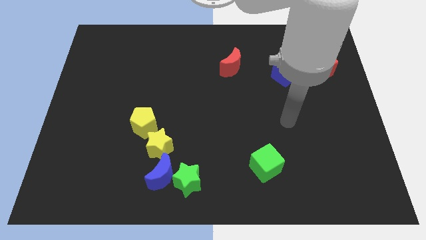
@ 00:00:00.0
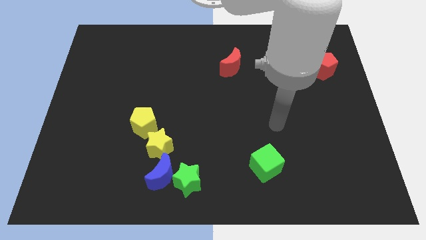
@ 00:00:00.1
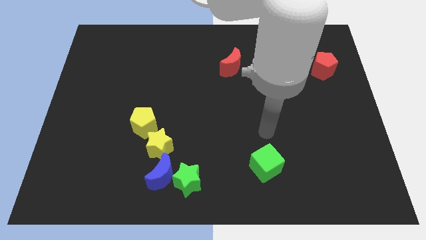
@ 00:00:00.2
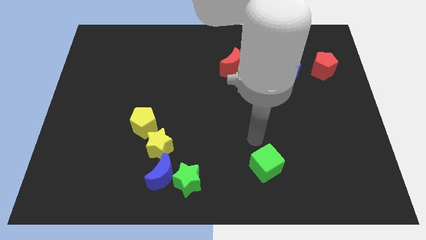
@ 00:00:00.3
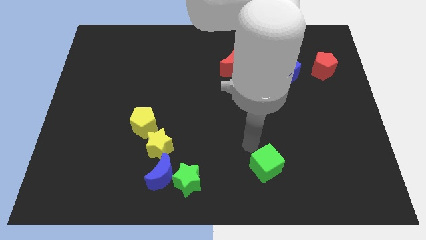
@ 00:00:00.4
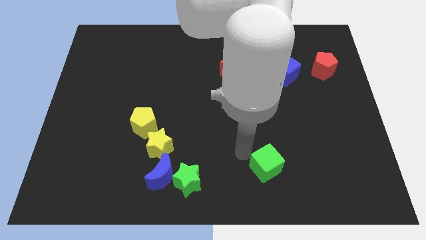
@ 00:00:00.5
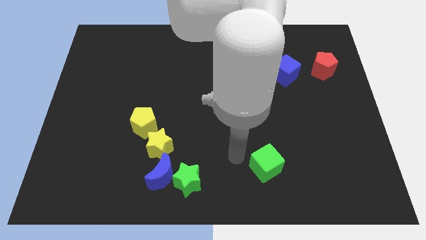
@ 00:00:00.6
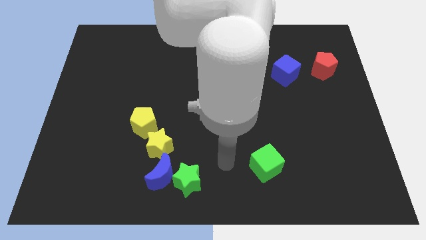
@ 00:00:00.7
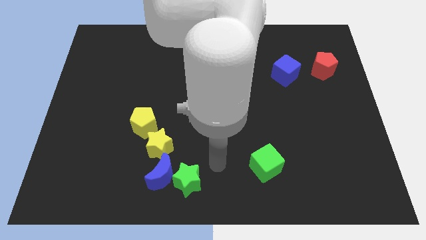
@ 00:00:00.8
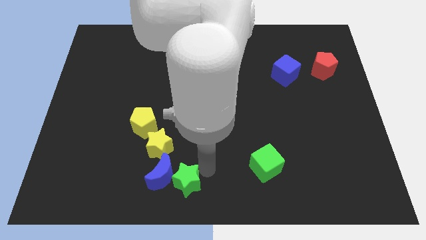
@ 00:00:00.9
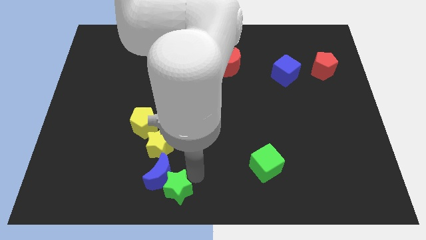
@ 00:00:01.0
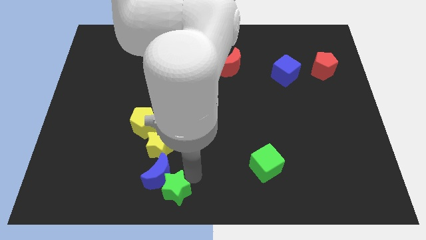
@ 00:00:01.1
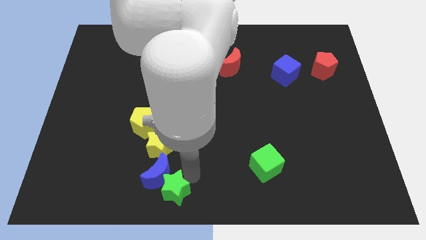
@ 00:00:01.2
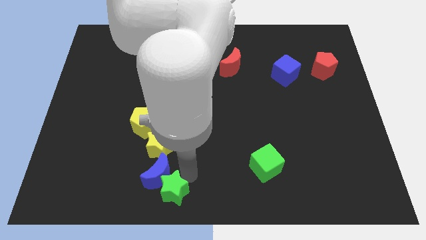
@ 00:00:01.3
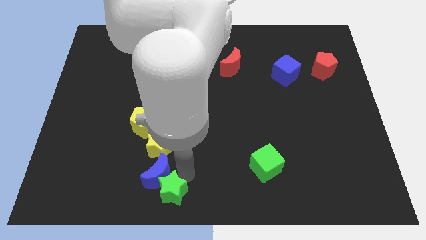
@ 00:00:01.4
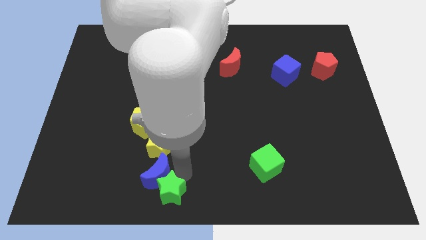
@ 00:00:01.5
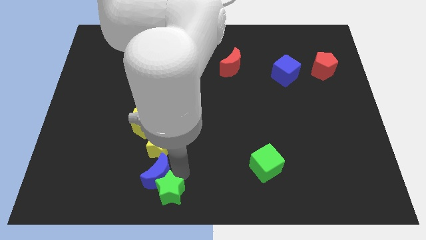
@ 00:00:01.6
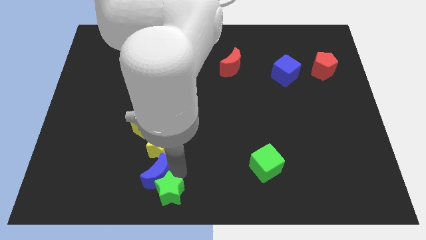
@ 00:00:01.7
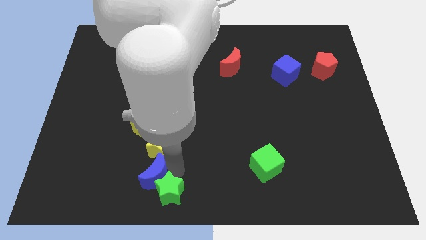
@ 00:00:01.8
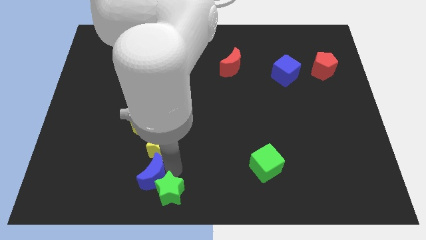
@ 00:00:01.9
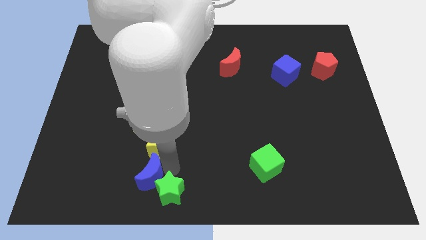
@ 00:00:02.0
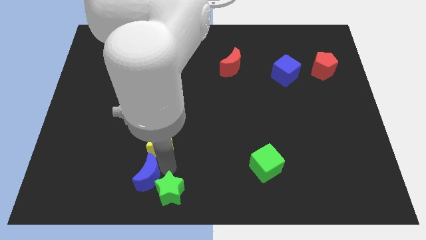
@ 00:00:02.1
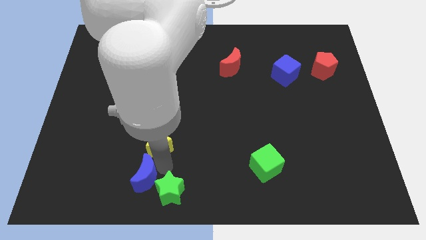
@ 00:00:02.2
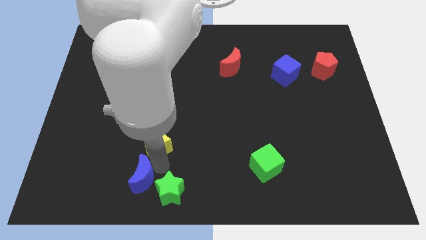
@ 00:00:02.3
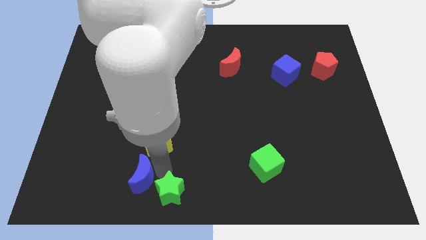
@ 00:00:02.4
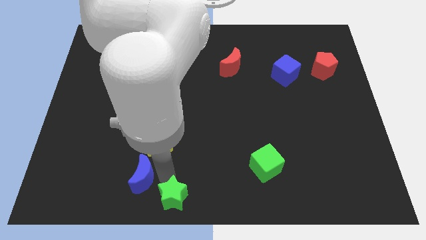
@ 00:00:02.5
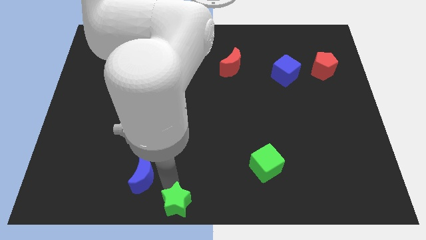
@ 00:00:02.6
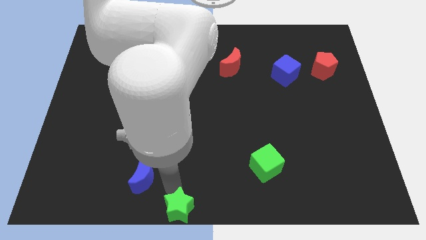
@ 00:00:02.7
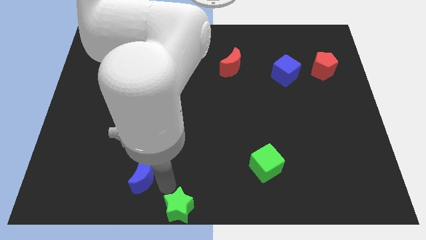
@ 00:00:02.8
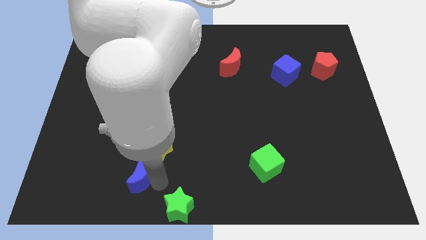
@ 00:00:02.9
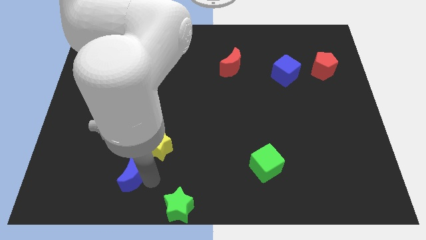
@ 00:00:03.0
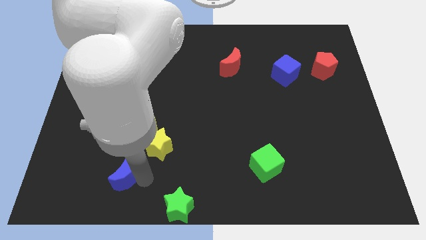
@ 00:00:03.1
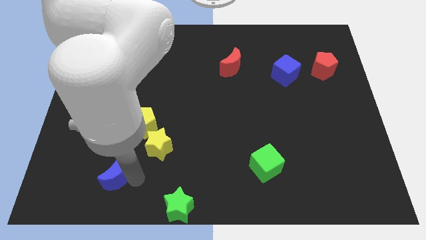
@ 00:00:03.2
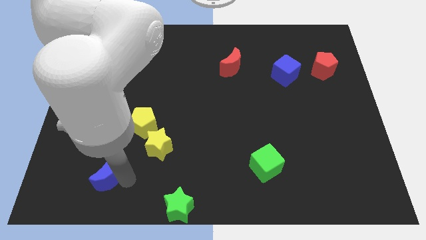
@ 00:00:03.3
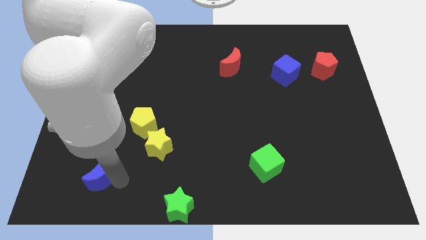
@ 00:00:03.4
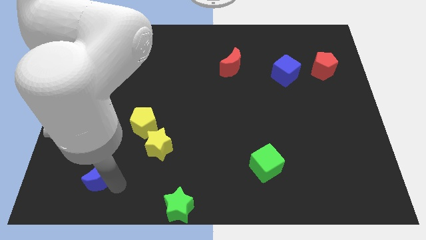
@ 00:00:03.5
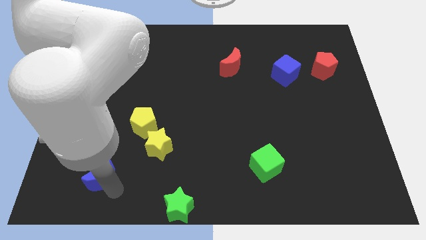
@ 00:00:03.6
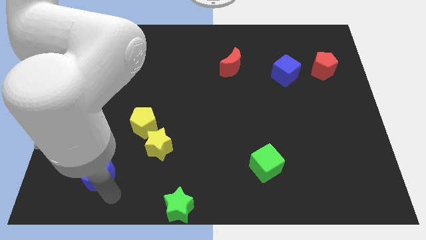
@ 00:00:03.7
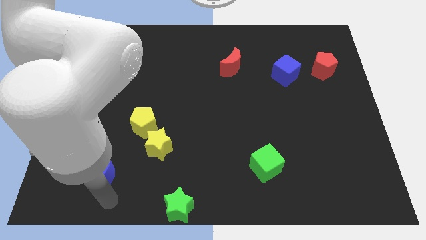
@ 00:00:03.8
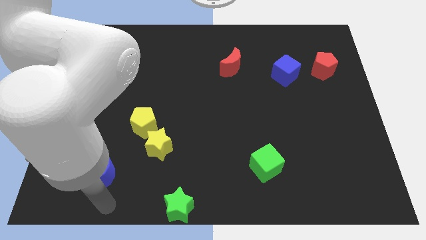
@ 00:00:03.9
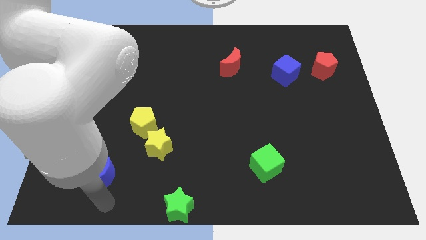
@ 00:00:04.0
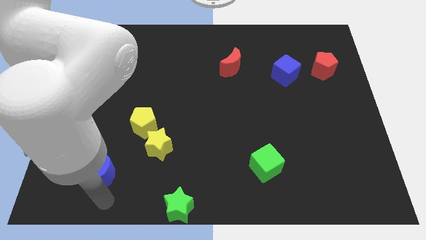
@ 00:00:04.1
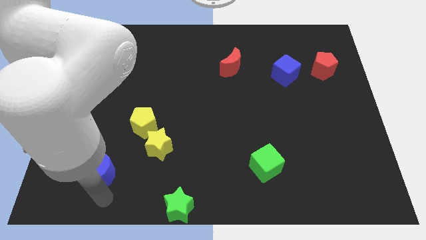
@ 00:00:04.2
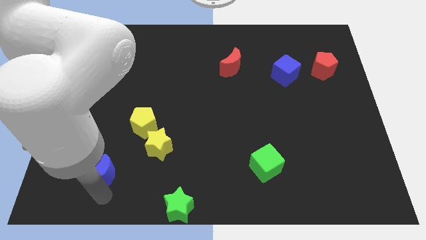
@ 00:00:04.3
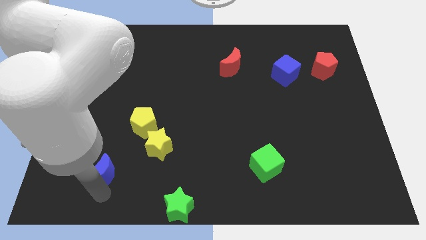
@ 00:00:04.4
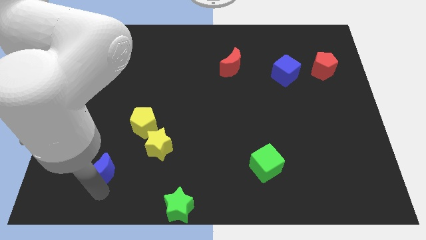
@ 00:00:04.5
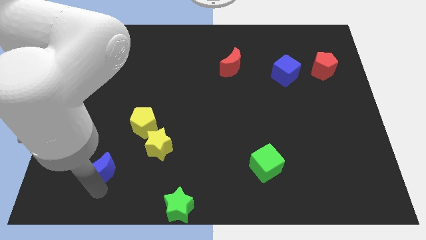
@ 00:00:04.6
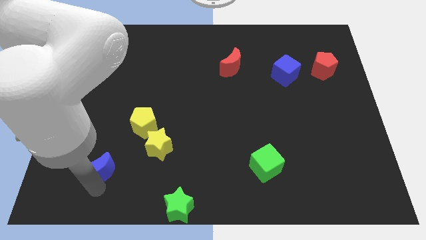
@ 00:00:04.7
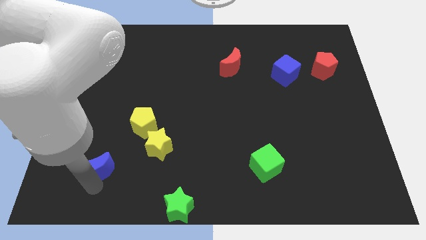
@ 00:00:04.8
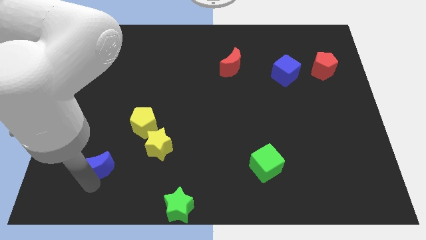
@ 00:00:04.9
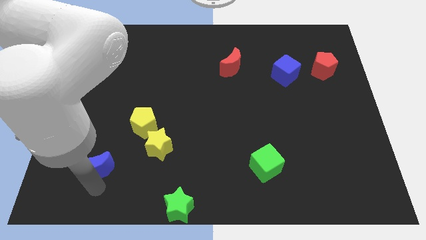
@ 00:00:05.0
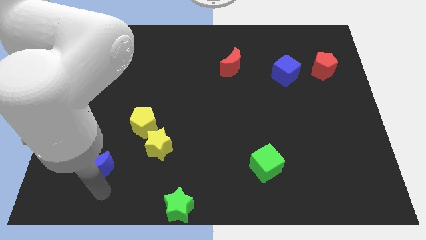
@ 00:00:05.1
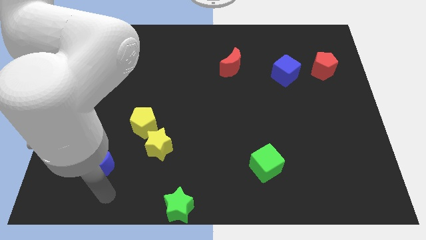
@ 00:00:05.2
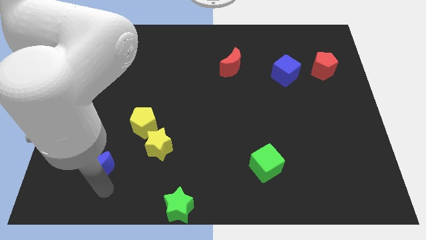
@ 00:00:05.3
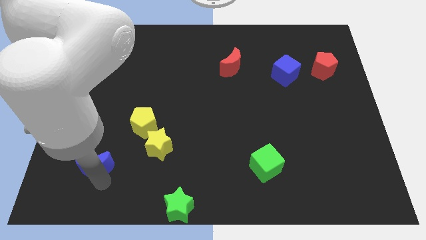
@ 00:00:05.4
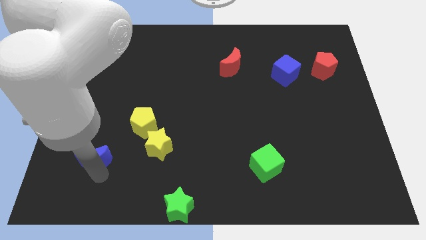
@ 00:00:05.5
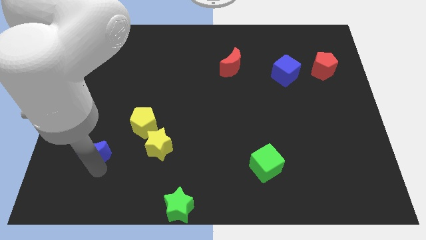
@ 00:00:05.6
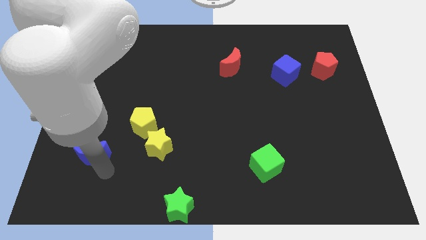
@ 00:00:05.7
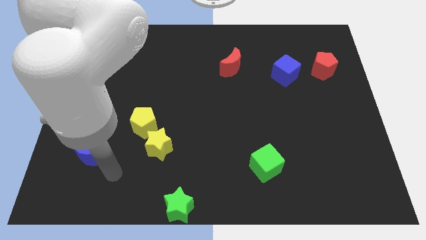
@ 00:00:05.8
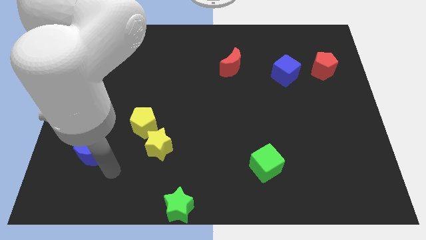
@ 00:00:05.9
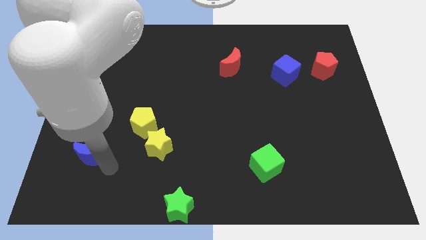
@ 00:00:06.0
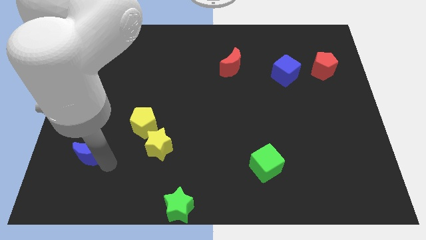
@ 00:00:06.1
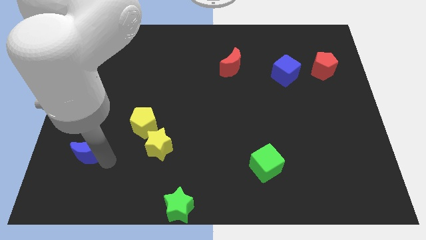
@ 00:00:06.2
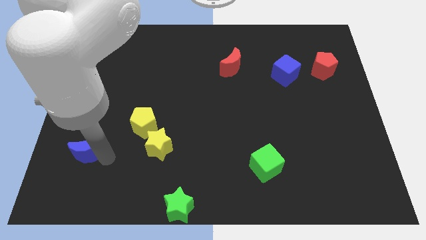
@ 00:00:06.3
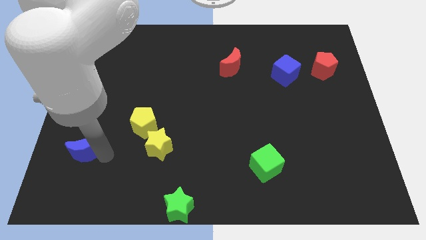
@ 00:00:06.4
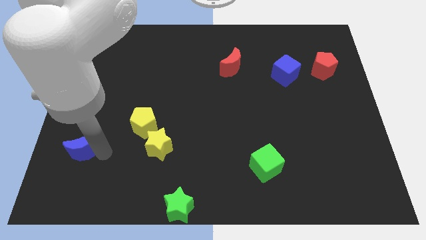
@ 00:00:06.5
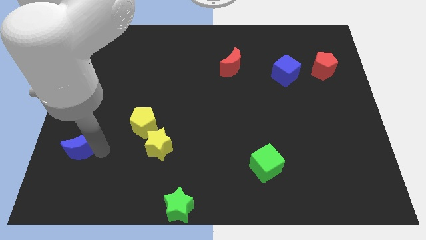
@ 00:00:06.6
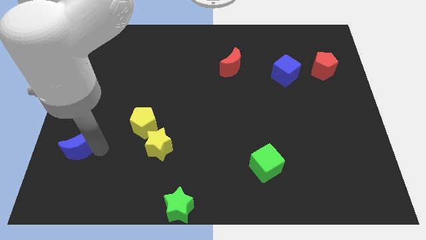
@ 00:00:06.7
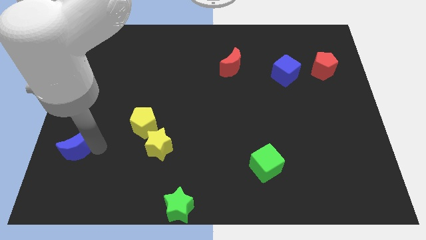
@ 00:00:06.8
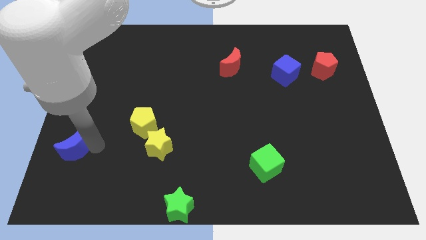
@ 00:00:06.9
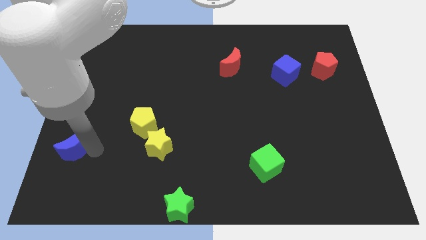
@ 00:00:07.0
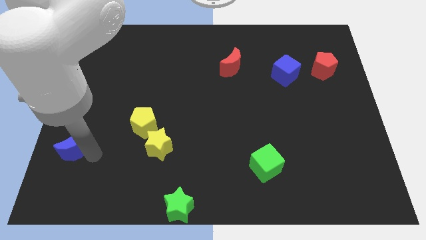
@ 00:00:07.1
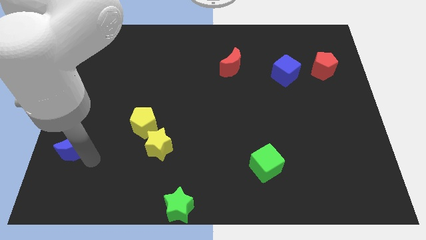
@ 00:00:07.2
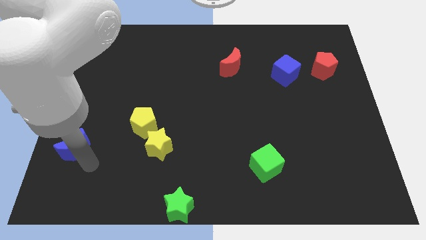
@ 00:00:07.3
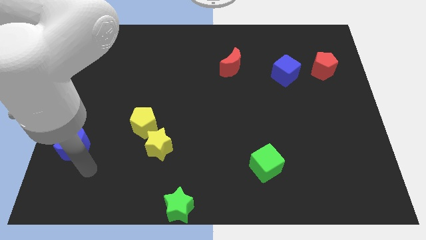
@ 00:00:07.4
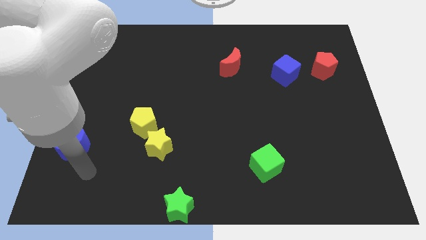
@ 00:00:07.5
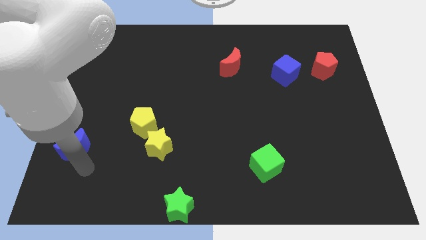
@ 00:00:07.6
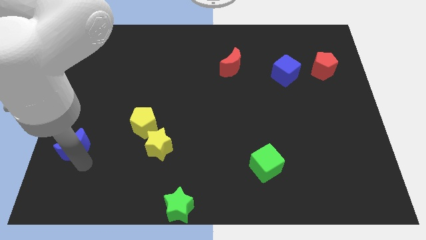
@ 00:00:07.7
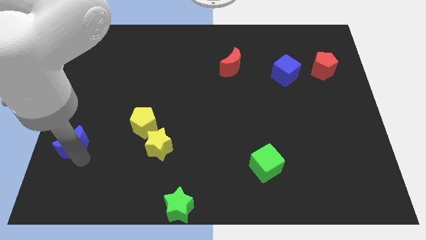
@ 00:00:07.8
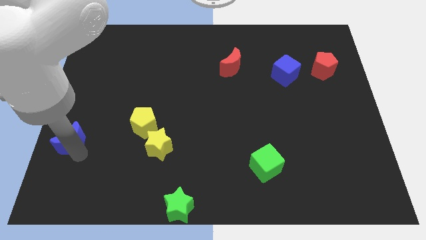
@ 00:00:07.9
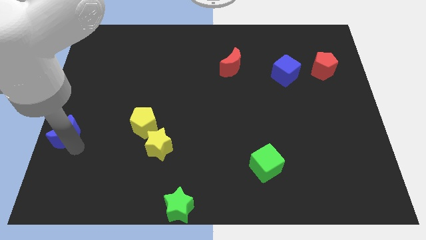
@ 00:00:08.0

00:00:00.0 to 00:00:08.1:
put the blue moon to the left side of the board
